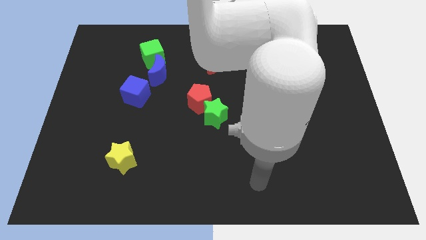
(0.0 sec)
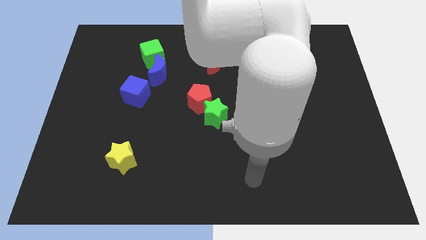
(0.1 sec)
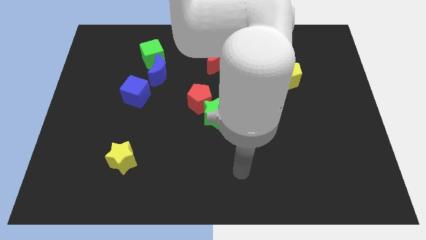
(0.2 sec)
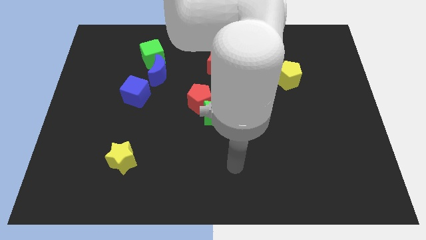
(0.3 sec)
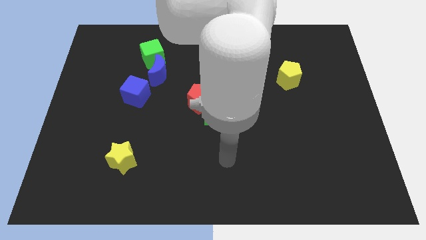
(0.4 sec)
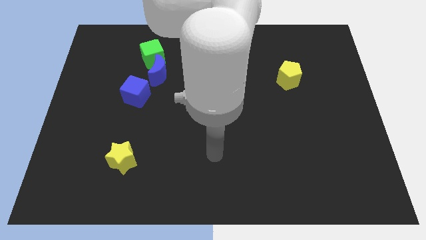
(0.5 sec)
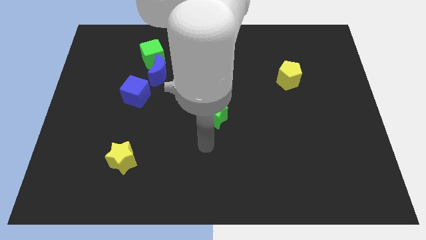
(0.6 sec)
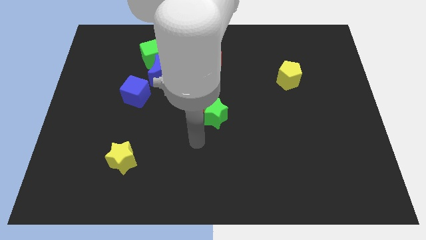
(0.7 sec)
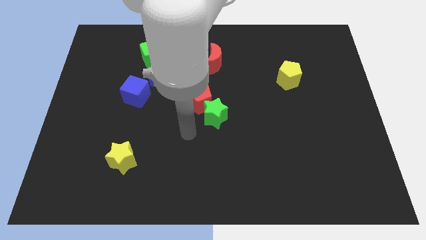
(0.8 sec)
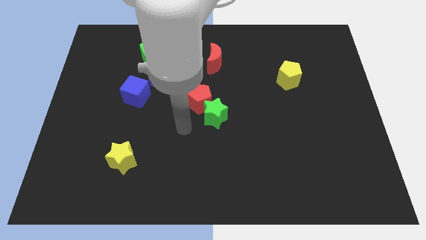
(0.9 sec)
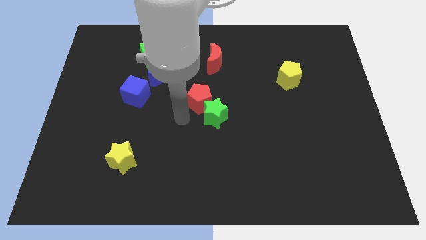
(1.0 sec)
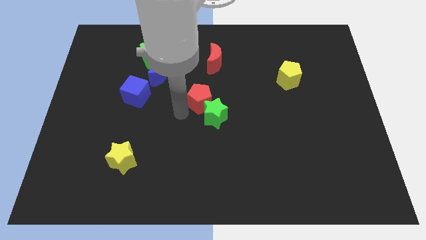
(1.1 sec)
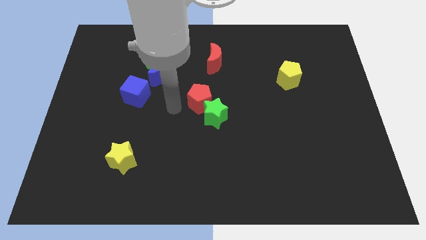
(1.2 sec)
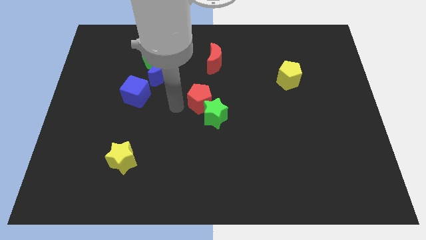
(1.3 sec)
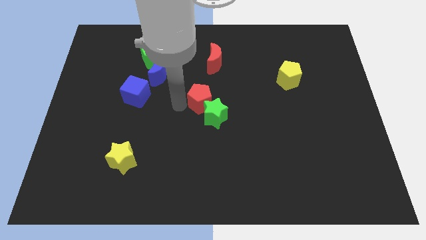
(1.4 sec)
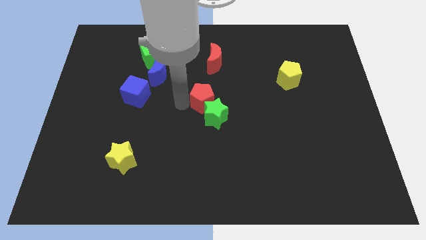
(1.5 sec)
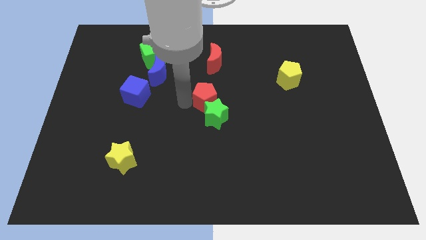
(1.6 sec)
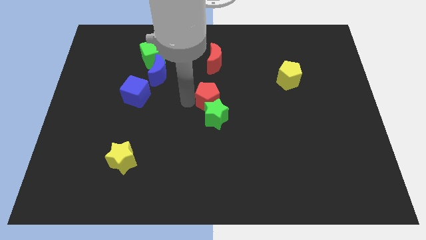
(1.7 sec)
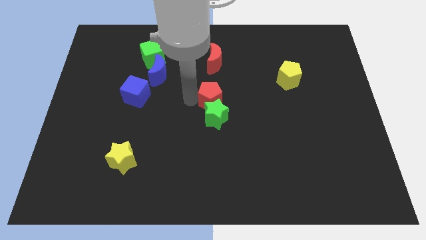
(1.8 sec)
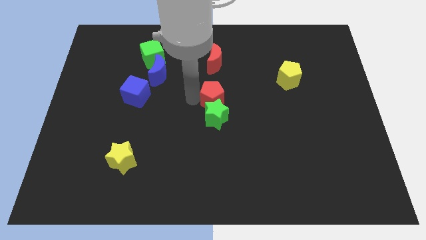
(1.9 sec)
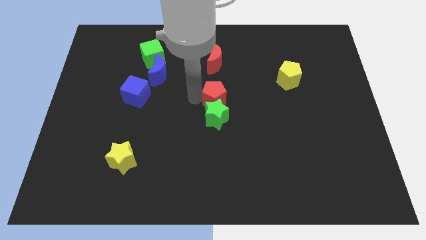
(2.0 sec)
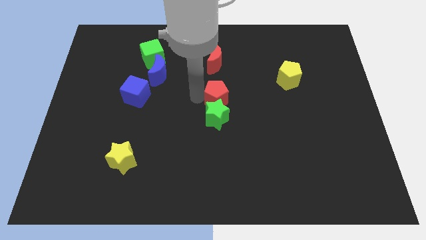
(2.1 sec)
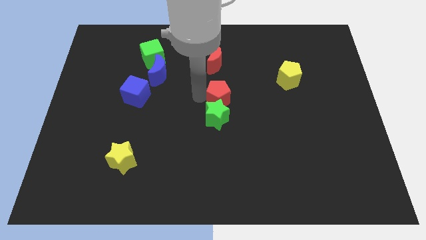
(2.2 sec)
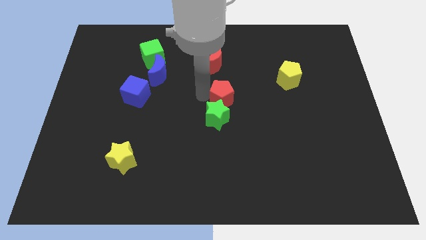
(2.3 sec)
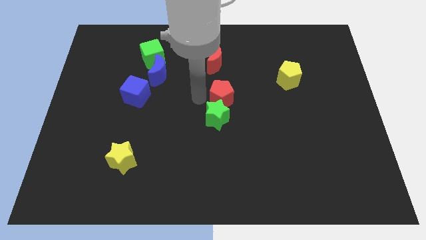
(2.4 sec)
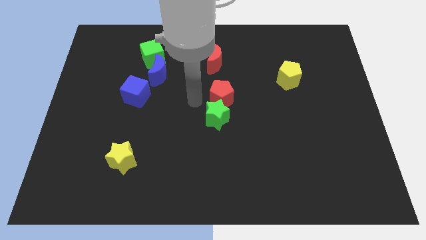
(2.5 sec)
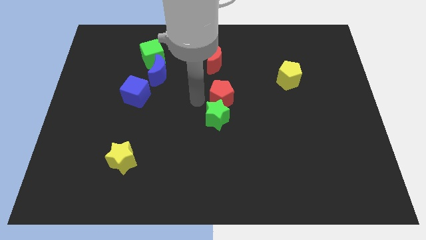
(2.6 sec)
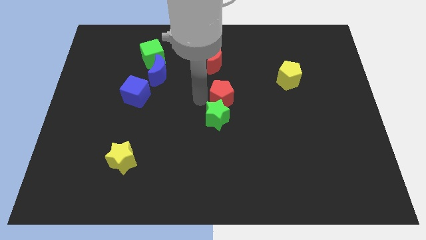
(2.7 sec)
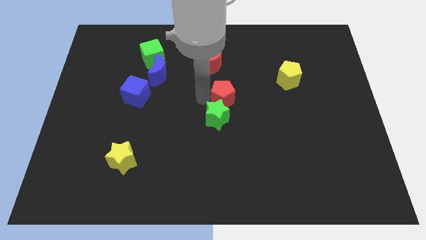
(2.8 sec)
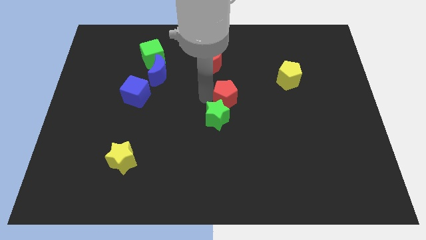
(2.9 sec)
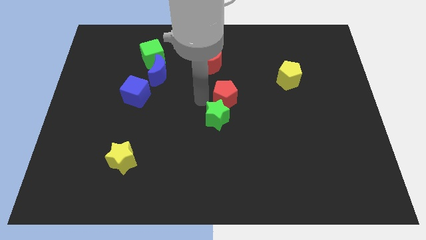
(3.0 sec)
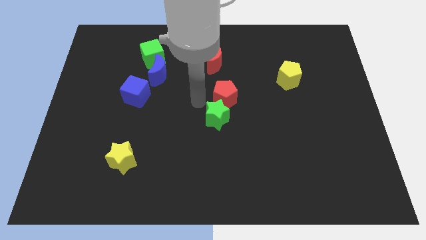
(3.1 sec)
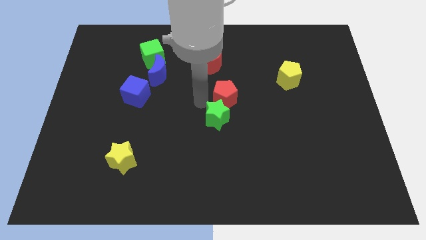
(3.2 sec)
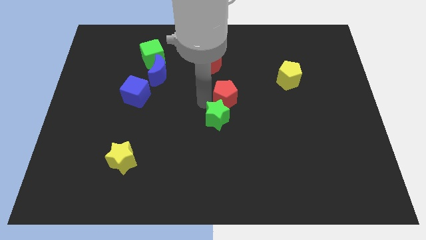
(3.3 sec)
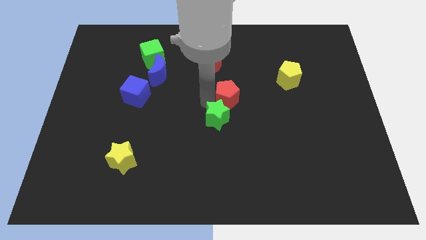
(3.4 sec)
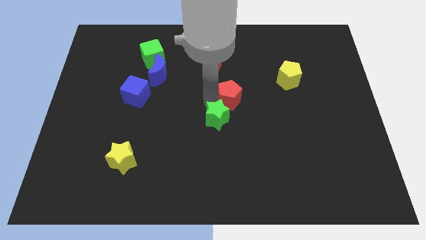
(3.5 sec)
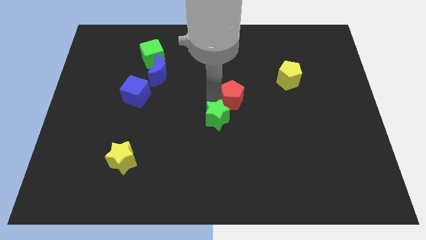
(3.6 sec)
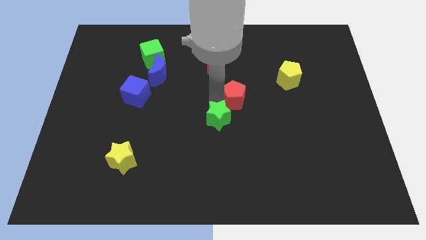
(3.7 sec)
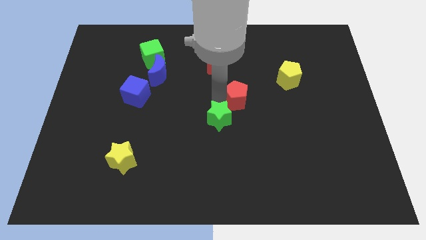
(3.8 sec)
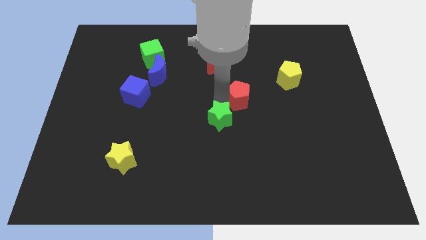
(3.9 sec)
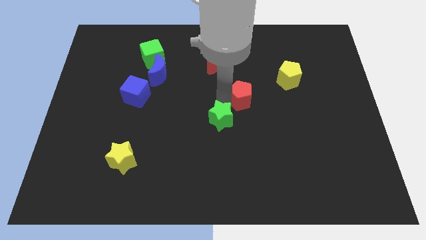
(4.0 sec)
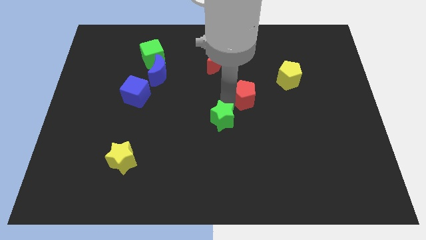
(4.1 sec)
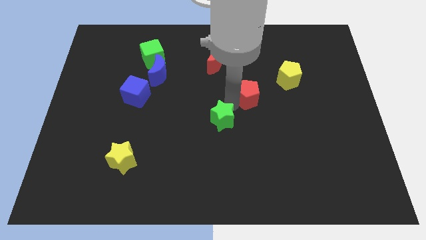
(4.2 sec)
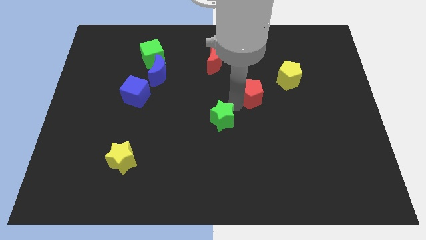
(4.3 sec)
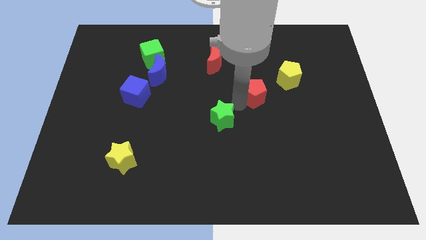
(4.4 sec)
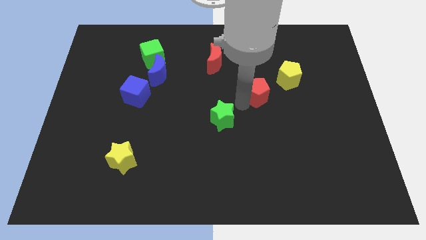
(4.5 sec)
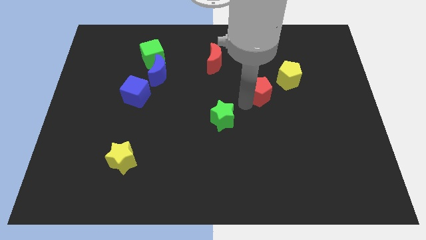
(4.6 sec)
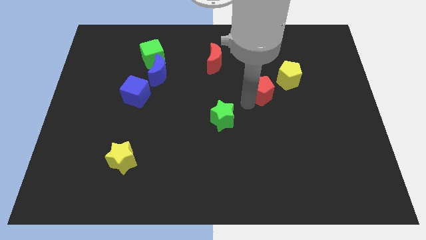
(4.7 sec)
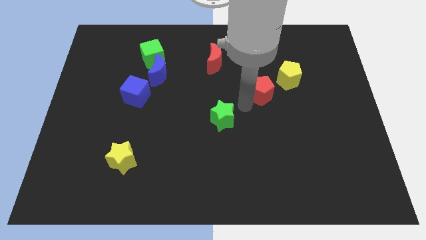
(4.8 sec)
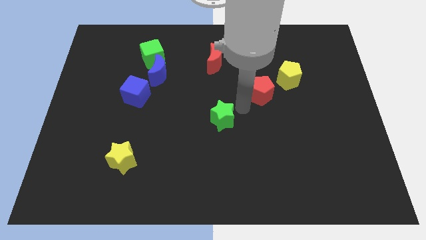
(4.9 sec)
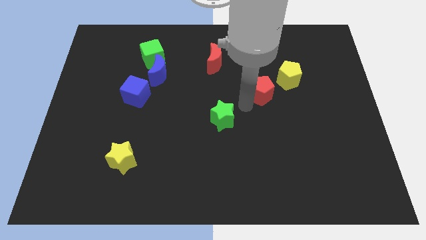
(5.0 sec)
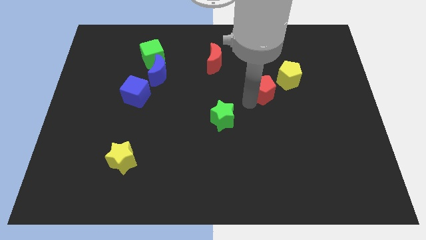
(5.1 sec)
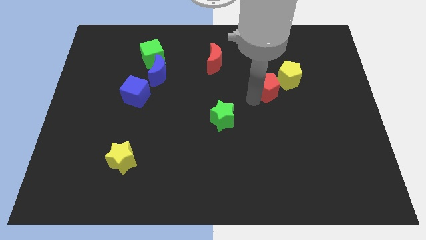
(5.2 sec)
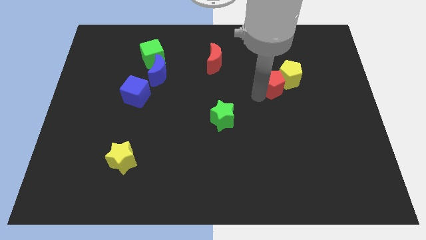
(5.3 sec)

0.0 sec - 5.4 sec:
push the red pentagon to the yellow pentagon

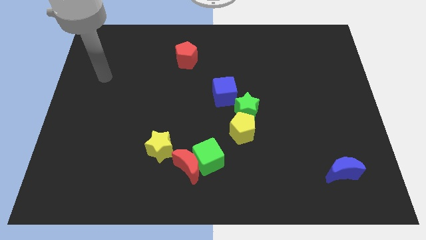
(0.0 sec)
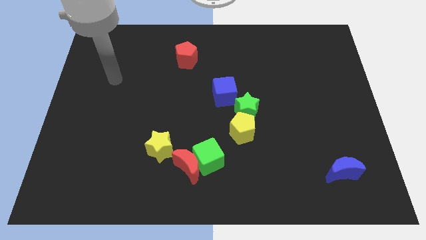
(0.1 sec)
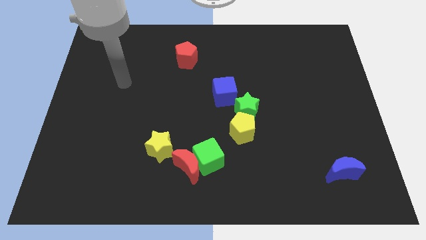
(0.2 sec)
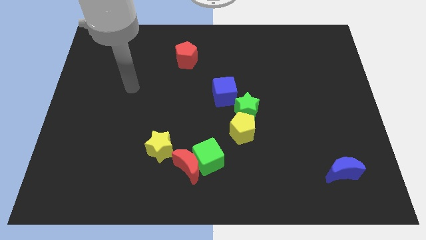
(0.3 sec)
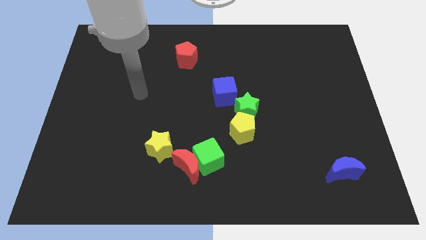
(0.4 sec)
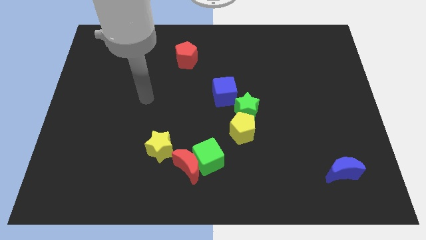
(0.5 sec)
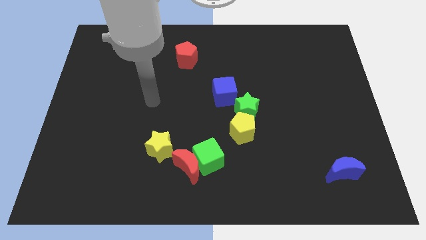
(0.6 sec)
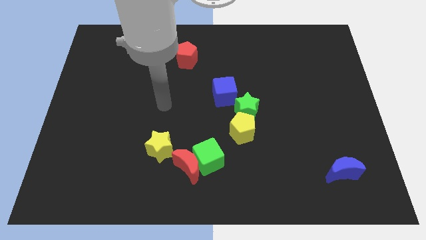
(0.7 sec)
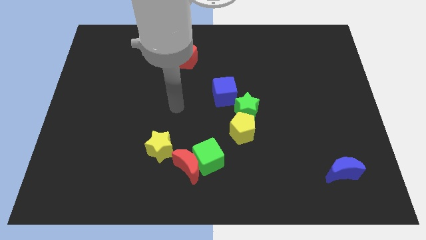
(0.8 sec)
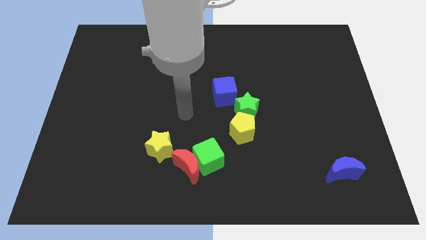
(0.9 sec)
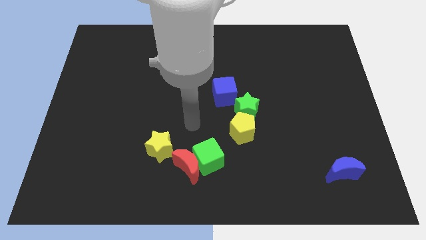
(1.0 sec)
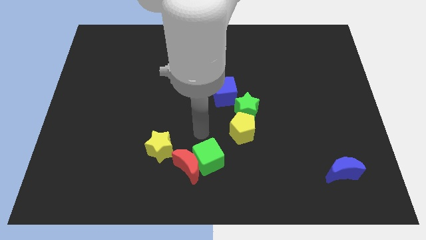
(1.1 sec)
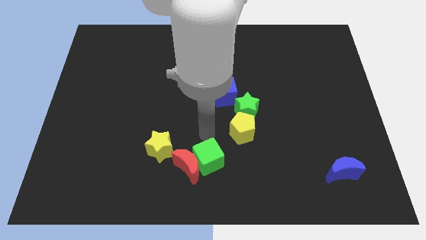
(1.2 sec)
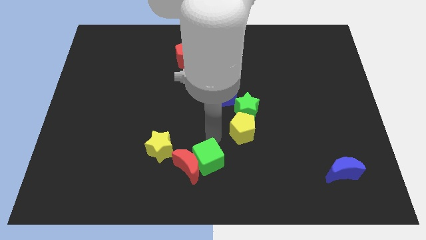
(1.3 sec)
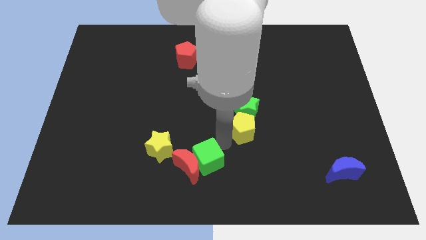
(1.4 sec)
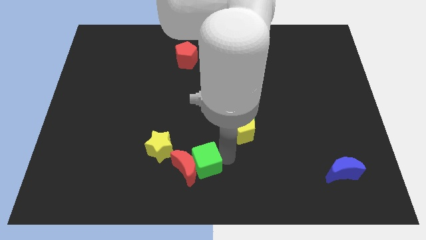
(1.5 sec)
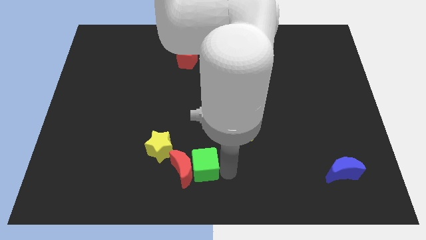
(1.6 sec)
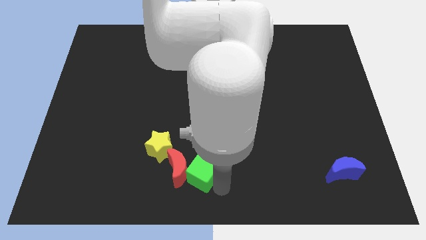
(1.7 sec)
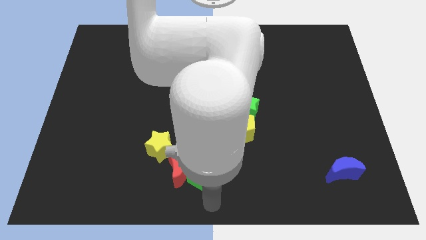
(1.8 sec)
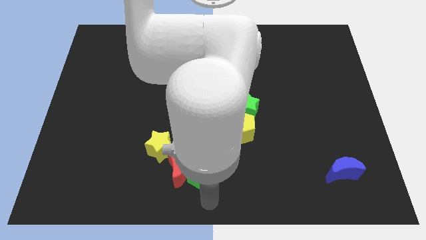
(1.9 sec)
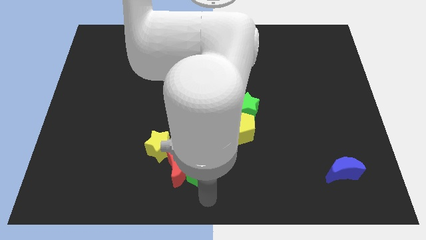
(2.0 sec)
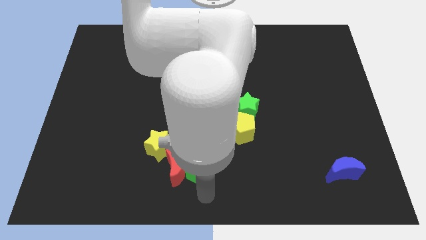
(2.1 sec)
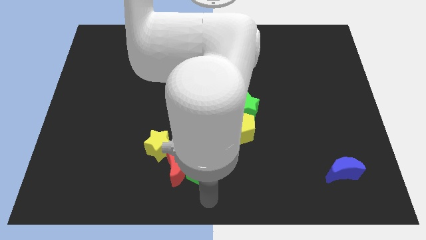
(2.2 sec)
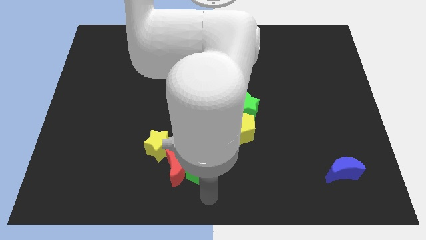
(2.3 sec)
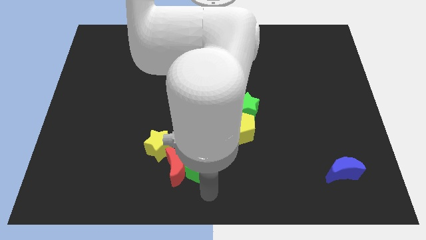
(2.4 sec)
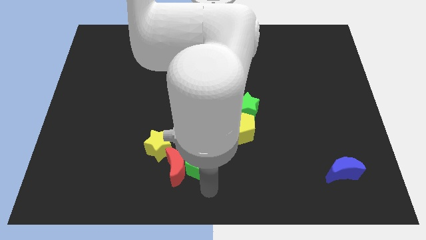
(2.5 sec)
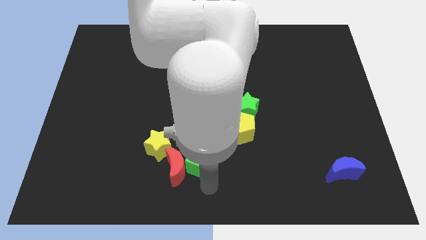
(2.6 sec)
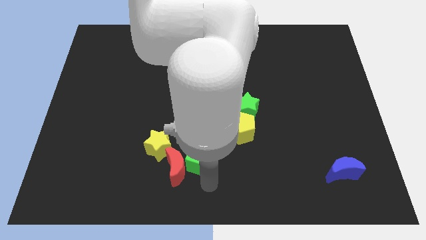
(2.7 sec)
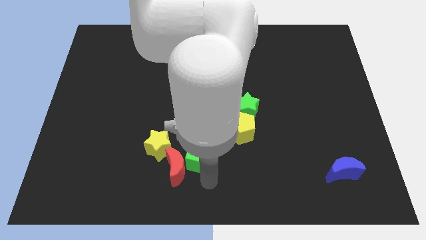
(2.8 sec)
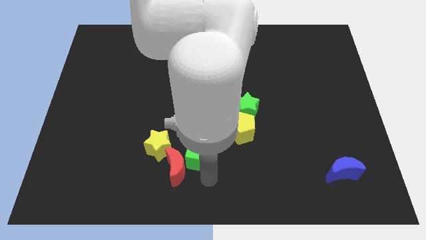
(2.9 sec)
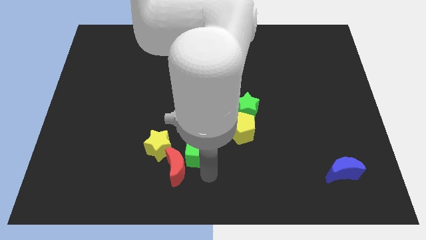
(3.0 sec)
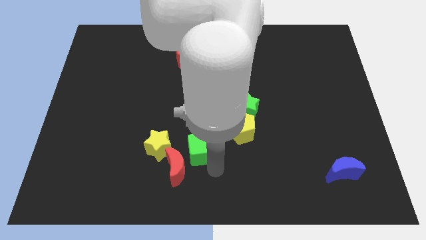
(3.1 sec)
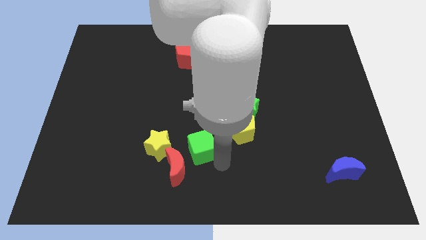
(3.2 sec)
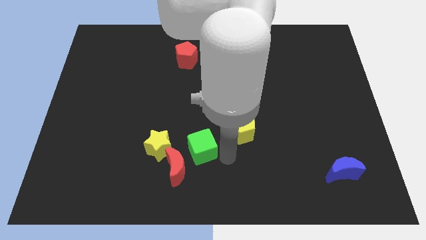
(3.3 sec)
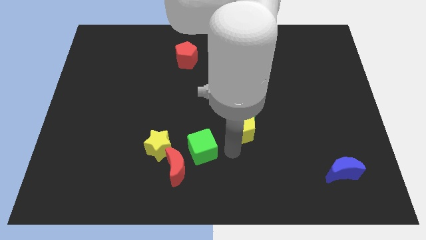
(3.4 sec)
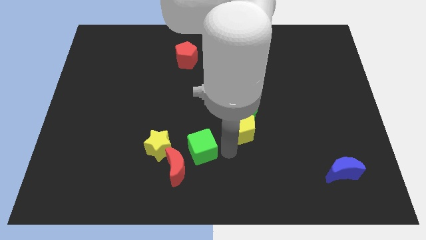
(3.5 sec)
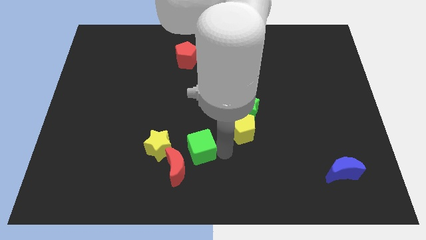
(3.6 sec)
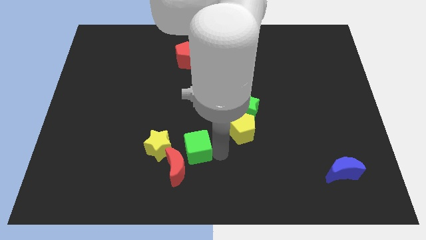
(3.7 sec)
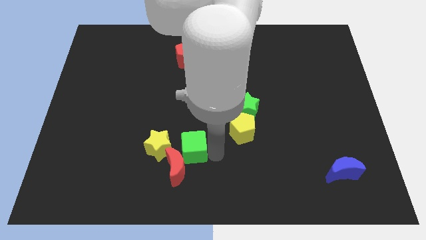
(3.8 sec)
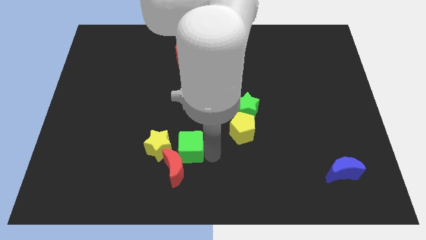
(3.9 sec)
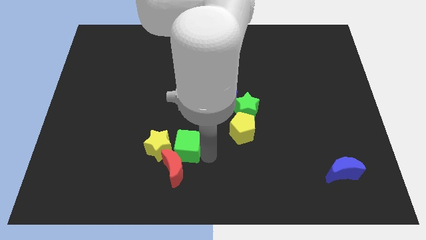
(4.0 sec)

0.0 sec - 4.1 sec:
move the green cube towards the yellow star
